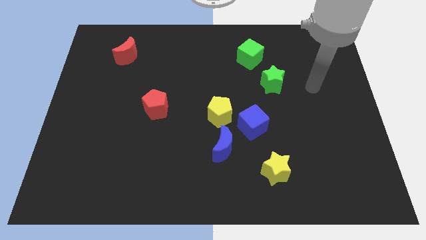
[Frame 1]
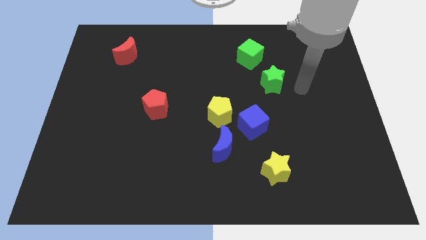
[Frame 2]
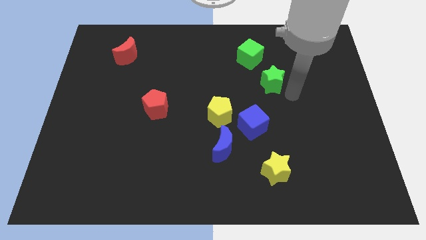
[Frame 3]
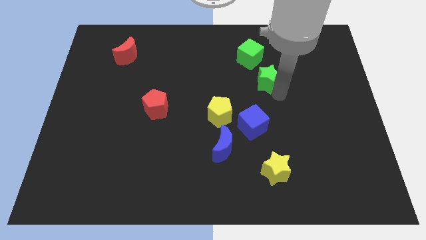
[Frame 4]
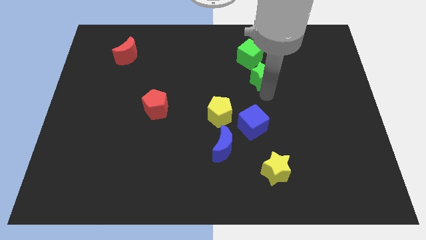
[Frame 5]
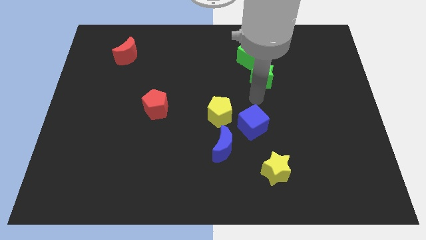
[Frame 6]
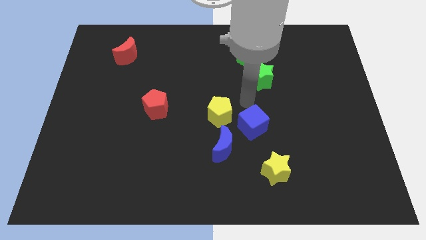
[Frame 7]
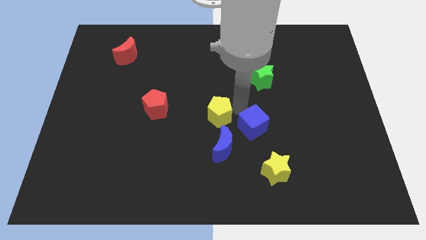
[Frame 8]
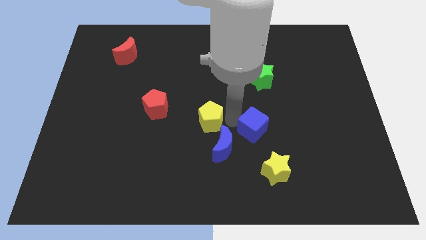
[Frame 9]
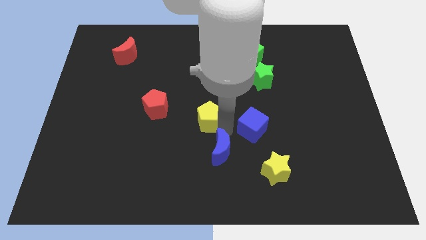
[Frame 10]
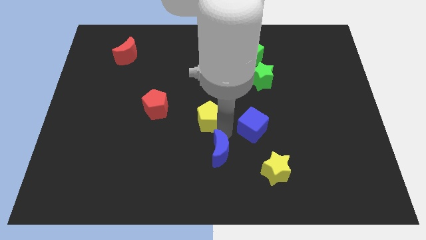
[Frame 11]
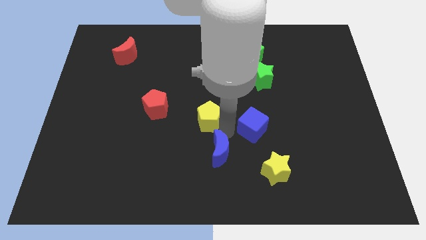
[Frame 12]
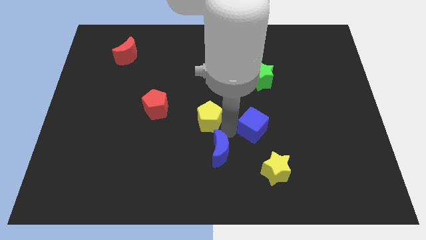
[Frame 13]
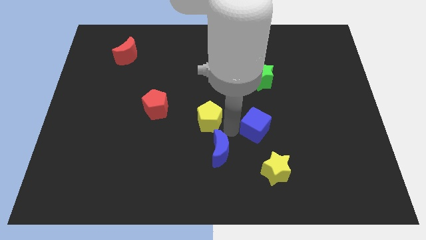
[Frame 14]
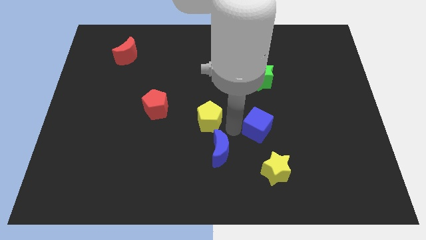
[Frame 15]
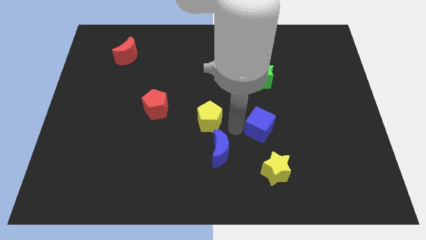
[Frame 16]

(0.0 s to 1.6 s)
pull the blue cube apart from the yellow pentagon and blue moon

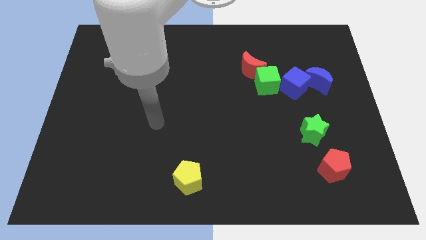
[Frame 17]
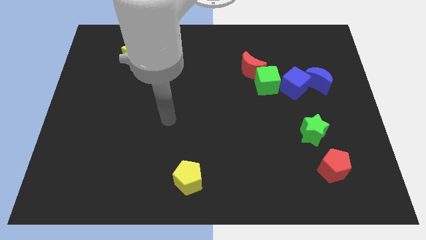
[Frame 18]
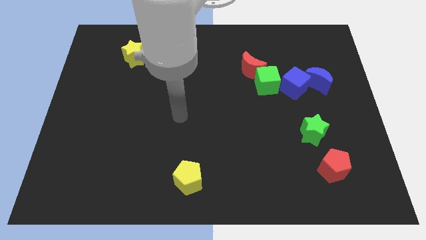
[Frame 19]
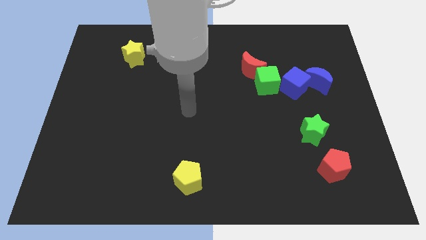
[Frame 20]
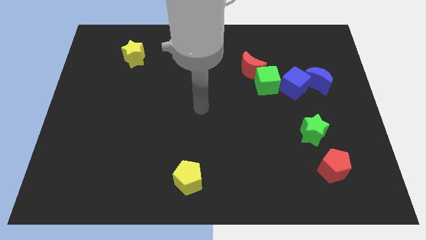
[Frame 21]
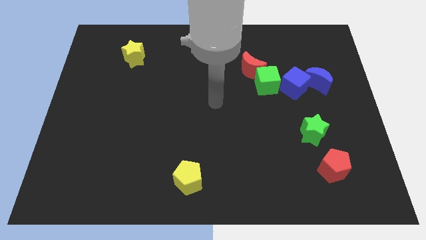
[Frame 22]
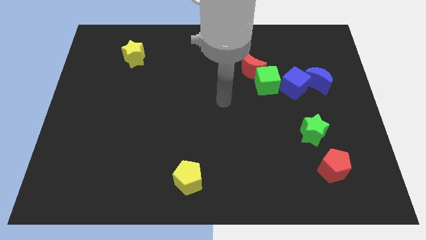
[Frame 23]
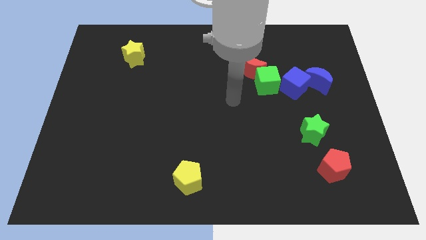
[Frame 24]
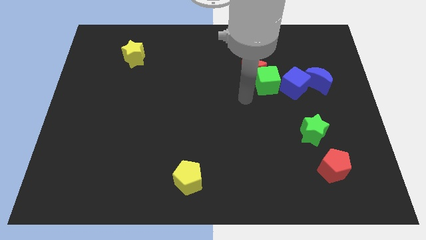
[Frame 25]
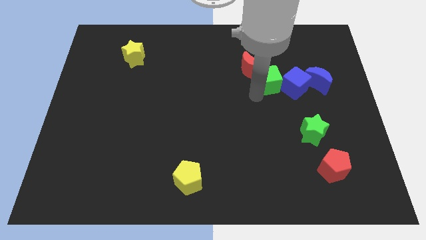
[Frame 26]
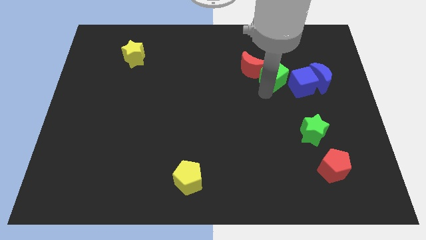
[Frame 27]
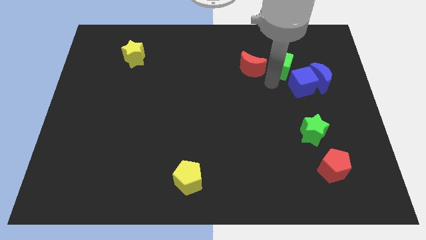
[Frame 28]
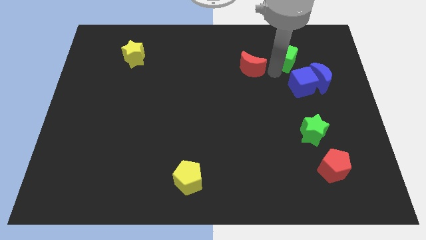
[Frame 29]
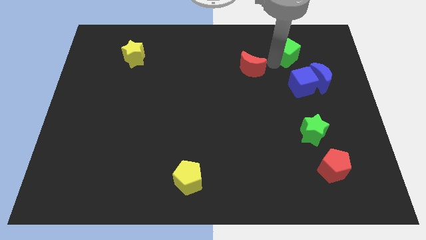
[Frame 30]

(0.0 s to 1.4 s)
pull the red moon apart from the green cube

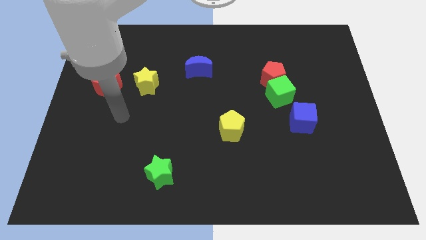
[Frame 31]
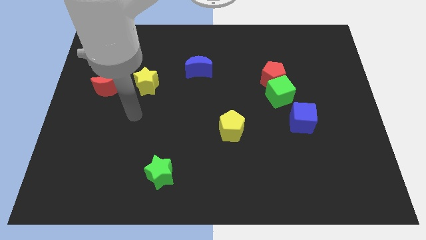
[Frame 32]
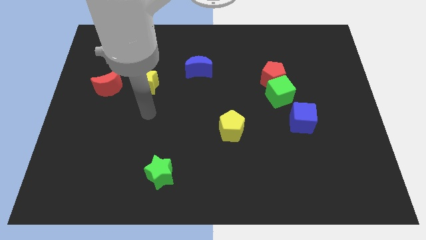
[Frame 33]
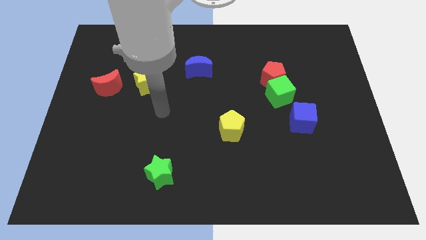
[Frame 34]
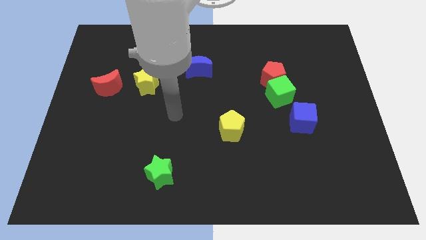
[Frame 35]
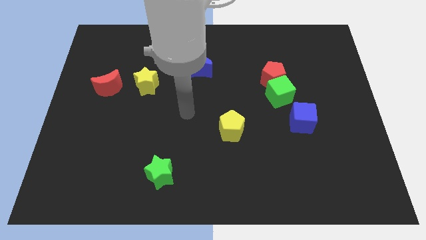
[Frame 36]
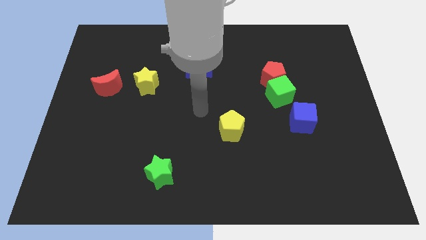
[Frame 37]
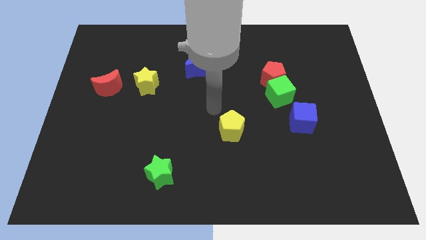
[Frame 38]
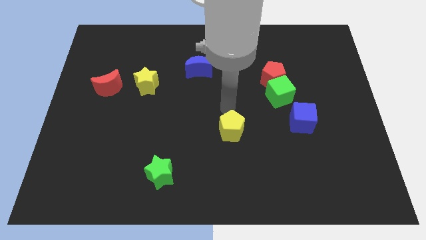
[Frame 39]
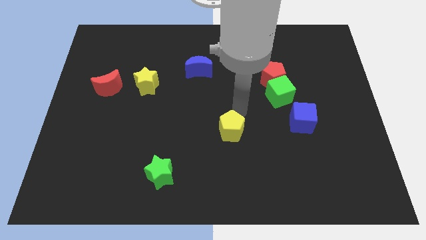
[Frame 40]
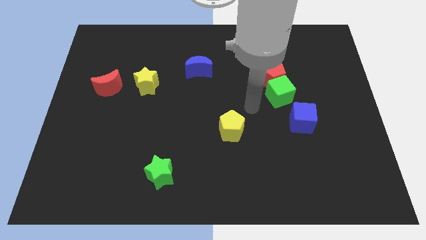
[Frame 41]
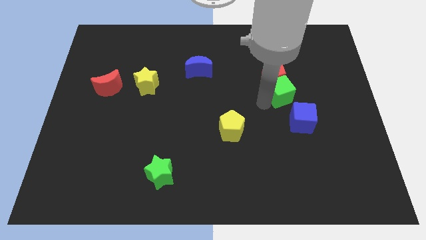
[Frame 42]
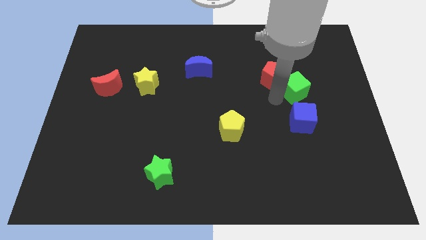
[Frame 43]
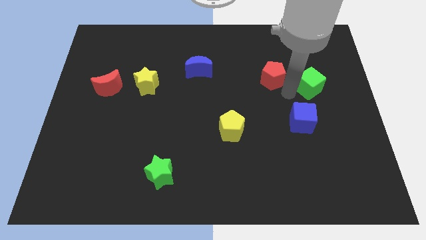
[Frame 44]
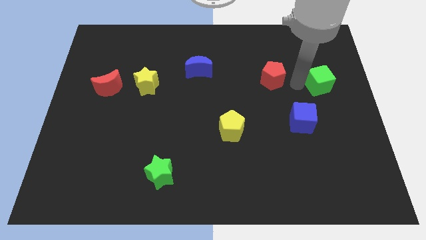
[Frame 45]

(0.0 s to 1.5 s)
move the red pentagon away from the green cube

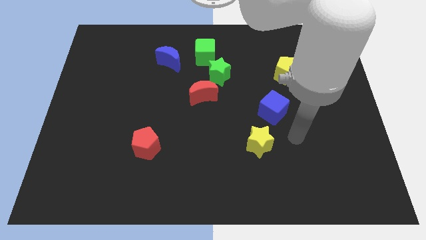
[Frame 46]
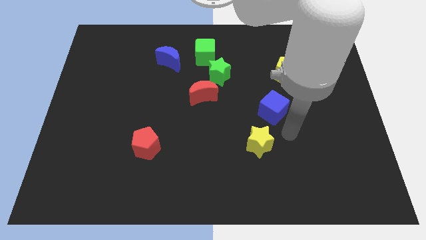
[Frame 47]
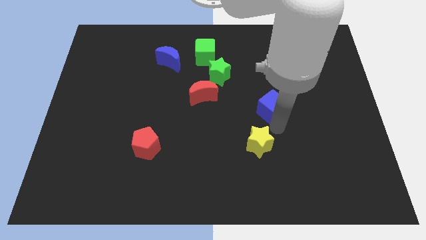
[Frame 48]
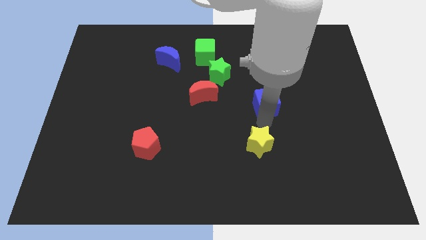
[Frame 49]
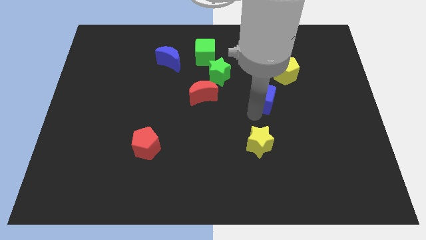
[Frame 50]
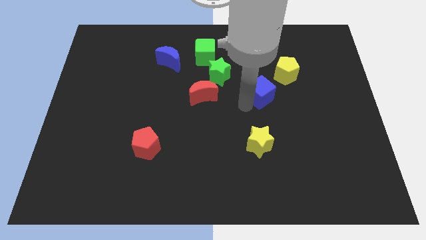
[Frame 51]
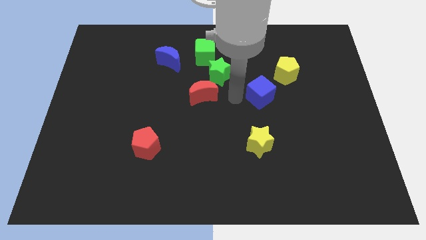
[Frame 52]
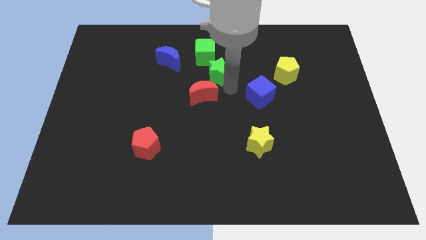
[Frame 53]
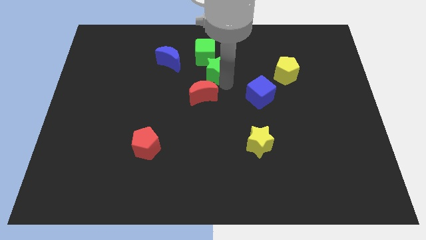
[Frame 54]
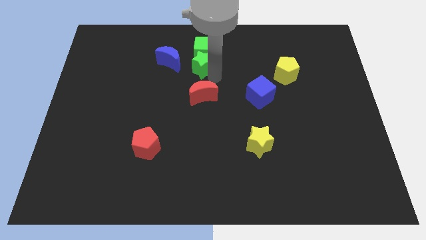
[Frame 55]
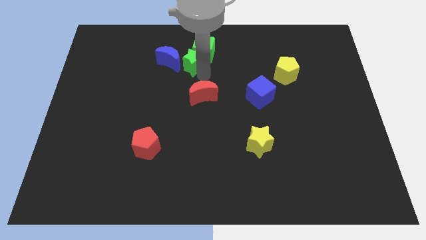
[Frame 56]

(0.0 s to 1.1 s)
separate the red moon from the green star

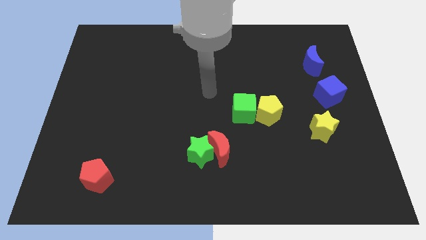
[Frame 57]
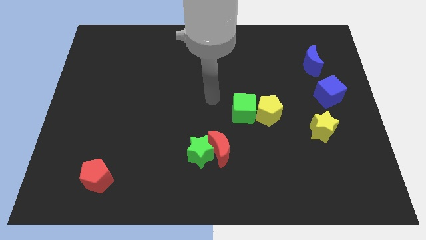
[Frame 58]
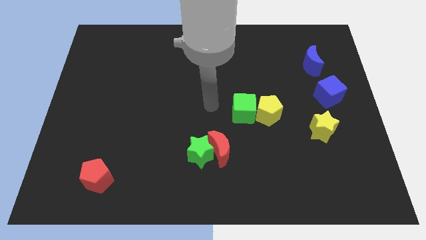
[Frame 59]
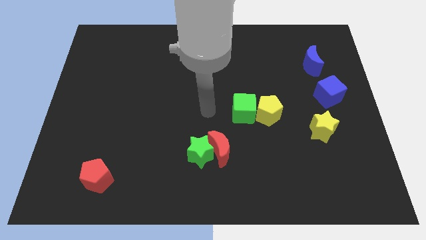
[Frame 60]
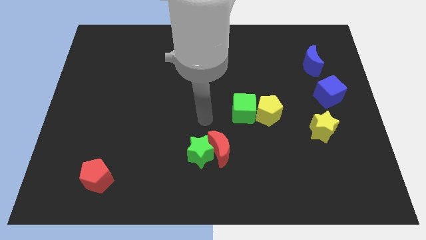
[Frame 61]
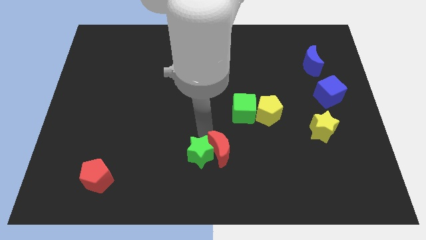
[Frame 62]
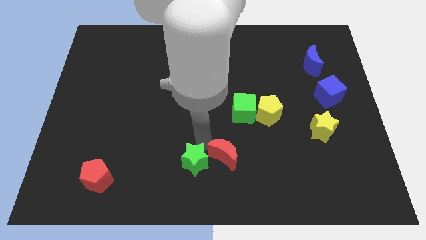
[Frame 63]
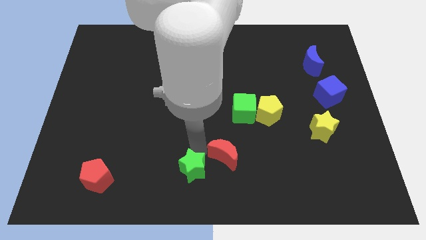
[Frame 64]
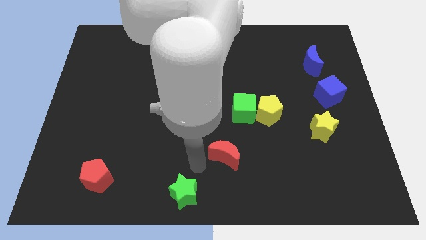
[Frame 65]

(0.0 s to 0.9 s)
move the red moon away from the green star

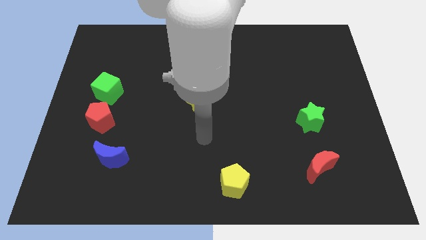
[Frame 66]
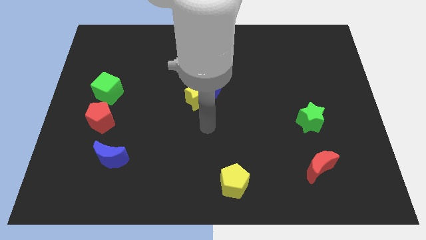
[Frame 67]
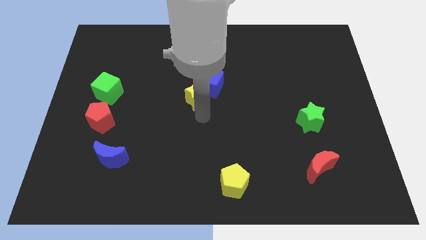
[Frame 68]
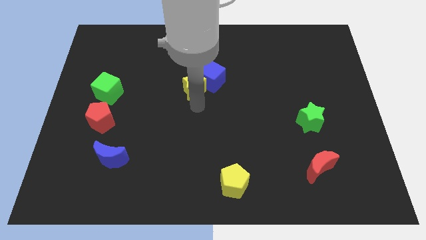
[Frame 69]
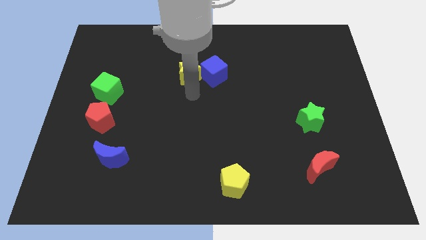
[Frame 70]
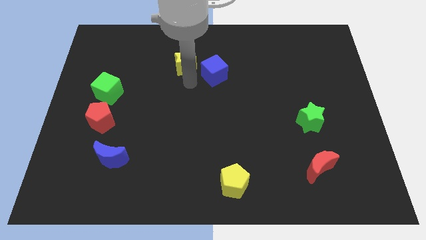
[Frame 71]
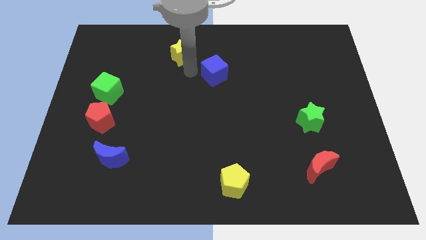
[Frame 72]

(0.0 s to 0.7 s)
separate the blue cube from the yellow star

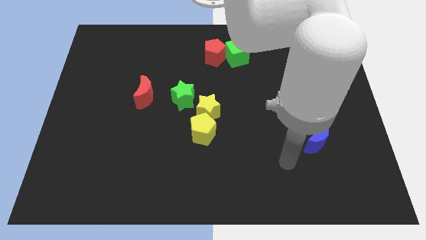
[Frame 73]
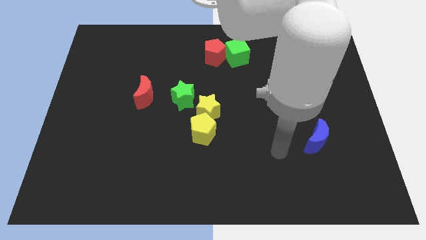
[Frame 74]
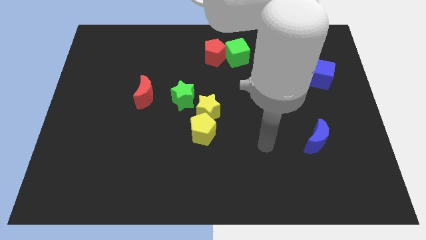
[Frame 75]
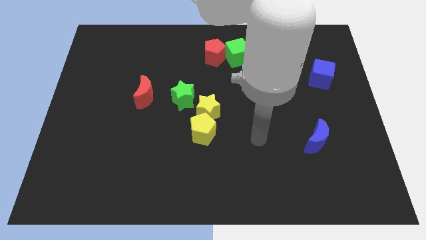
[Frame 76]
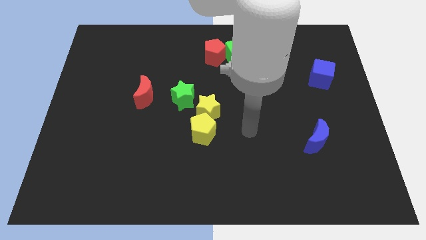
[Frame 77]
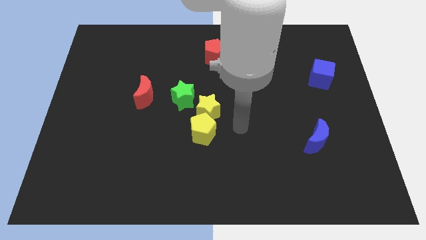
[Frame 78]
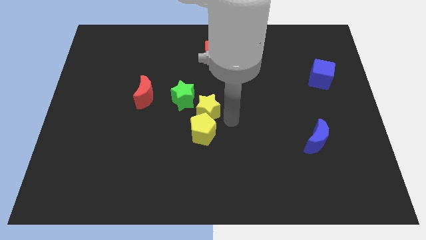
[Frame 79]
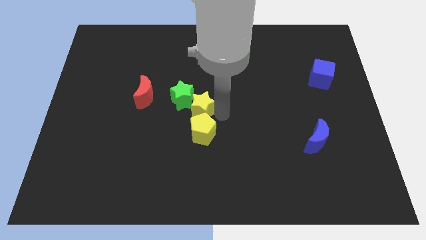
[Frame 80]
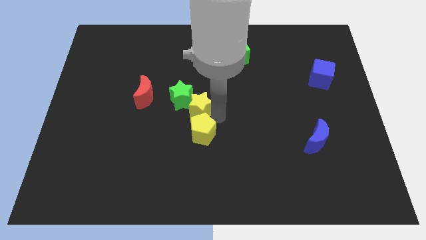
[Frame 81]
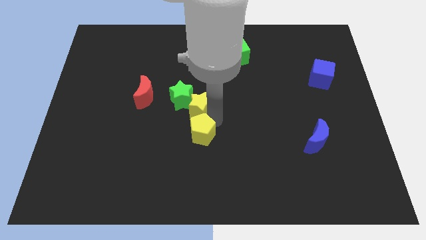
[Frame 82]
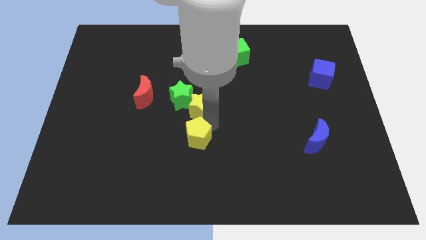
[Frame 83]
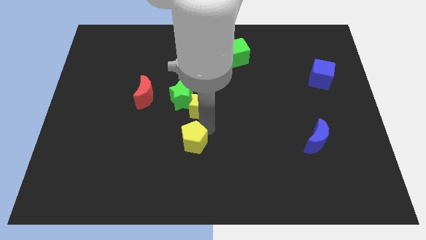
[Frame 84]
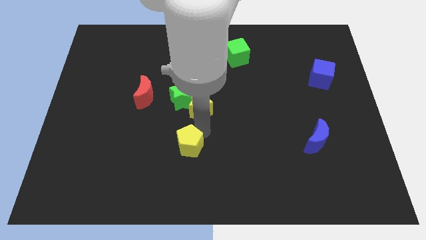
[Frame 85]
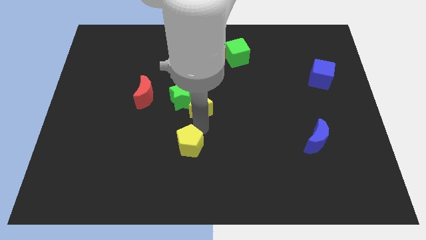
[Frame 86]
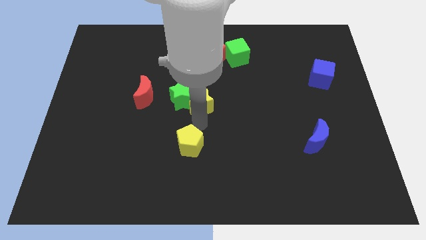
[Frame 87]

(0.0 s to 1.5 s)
pull the yellow pentagon apart from the yellow star

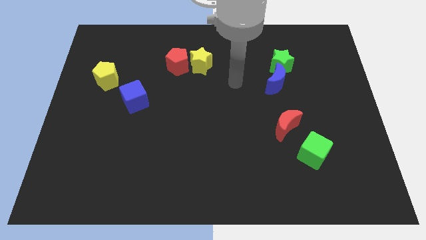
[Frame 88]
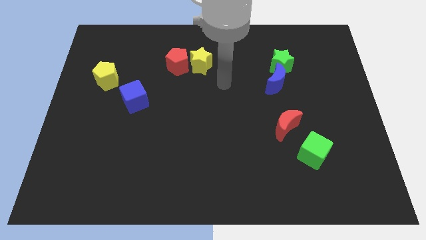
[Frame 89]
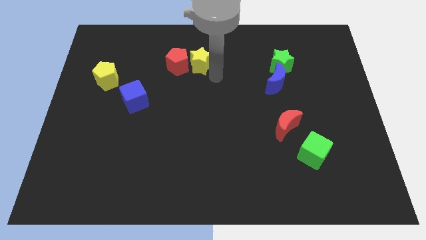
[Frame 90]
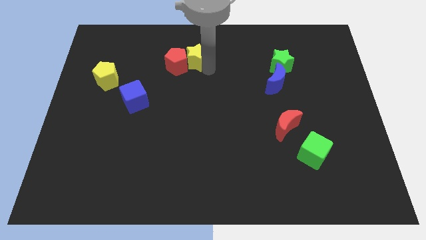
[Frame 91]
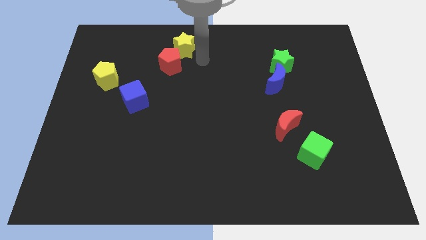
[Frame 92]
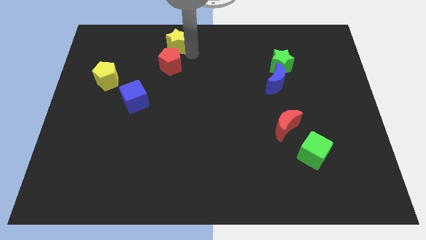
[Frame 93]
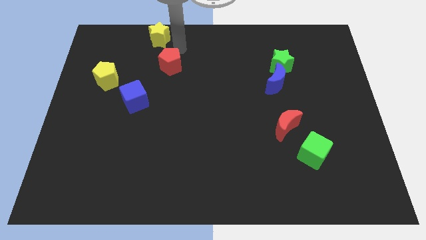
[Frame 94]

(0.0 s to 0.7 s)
pull the red pentagon apart from the yellow star

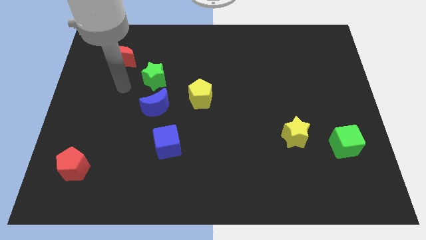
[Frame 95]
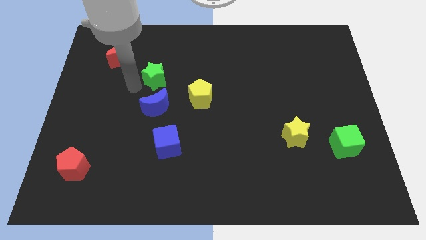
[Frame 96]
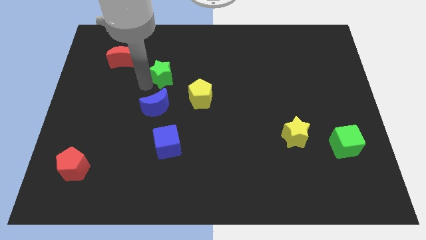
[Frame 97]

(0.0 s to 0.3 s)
separate the blue moon from the green star
